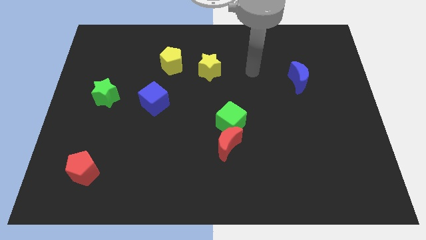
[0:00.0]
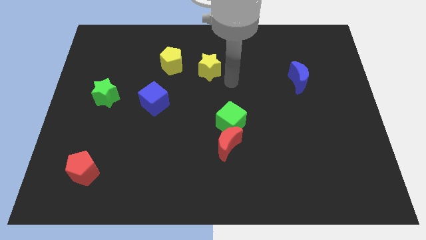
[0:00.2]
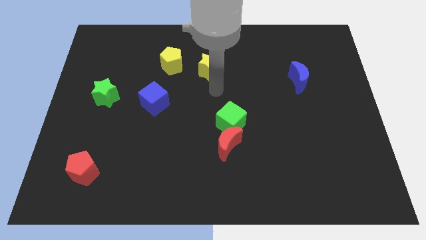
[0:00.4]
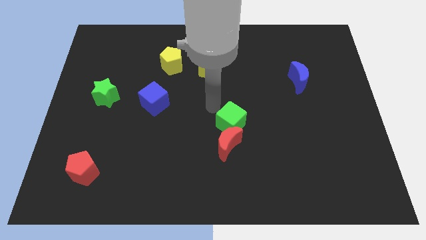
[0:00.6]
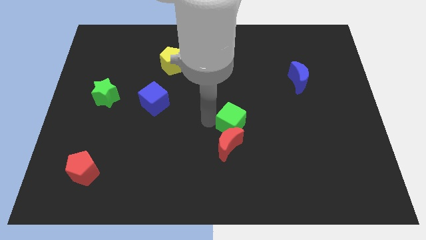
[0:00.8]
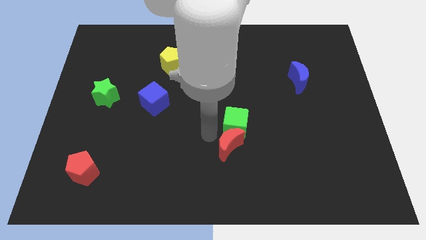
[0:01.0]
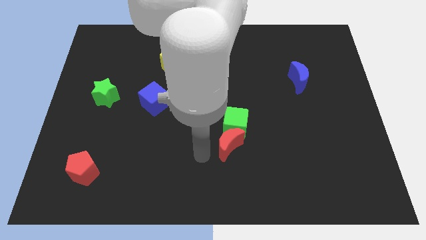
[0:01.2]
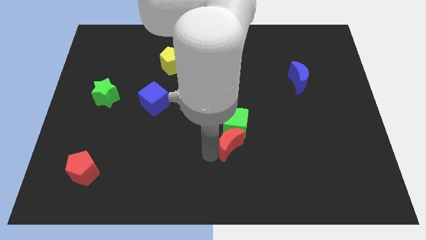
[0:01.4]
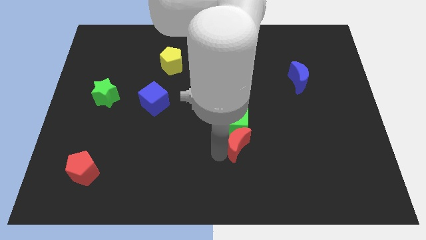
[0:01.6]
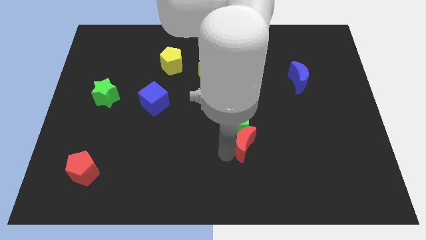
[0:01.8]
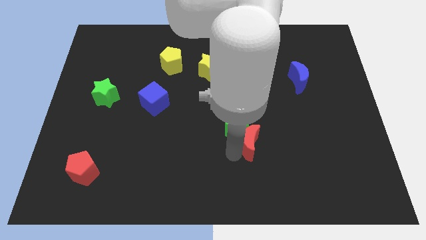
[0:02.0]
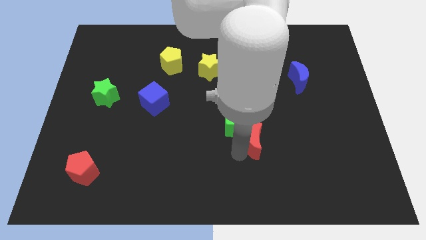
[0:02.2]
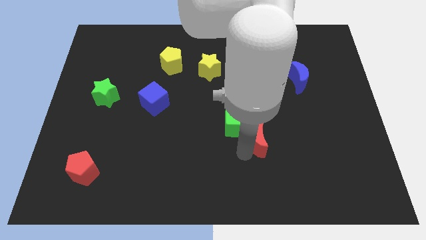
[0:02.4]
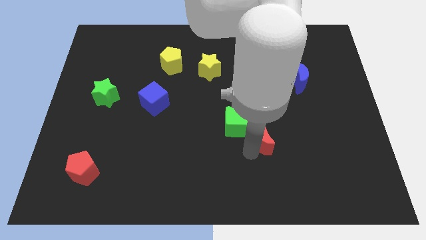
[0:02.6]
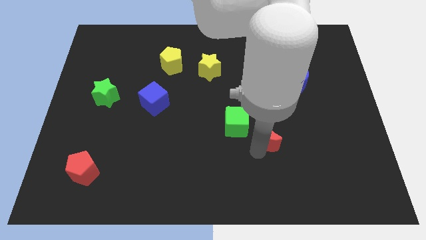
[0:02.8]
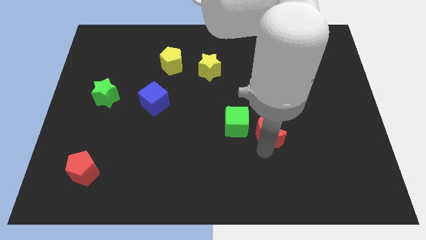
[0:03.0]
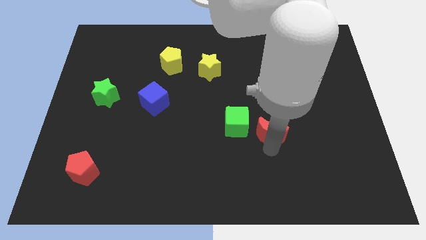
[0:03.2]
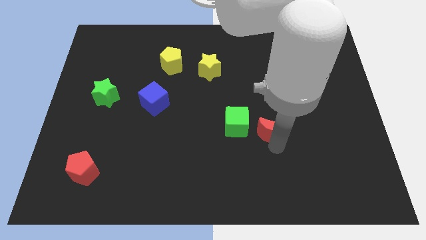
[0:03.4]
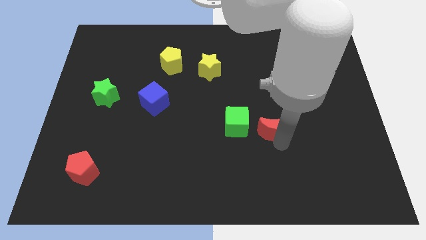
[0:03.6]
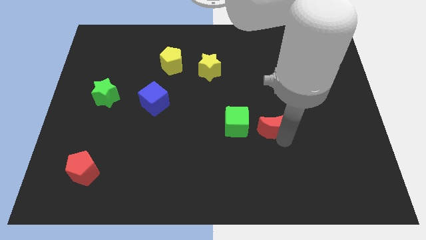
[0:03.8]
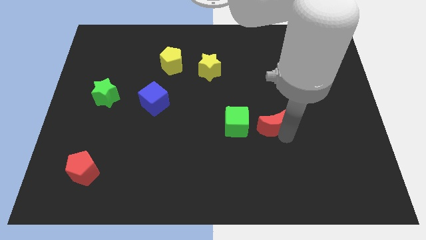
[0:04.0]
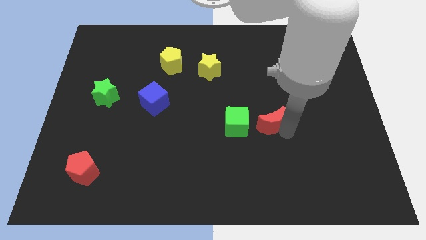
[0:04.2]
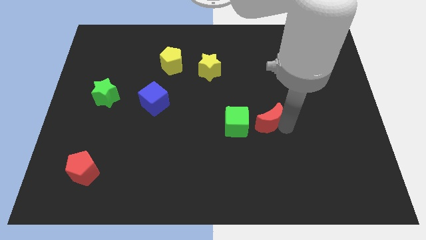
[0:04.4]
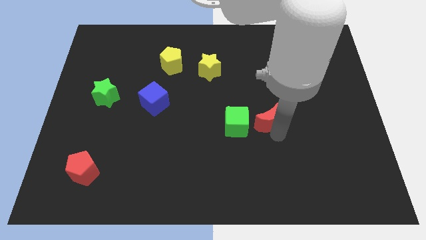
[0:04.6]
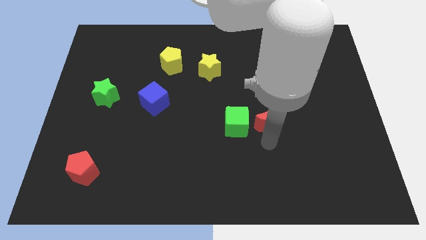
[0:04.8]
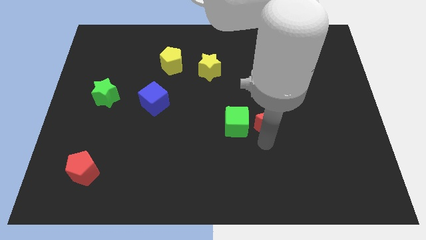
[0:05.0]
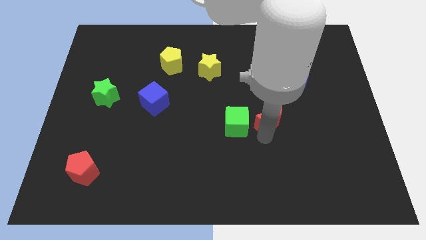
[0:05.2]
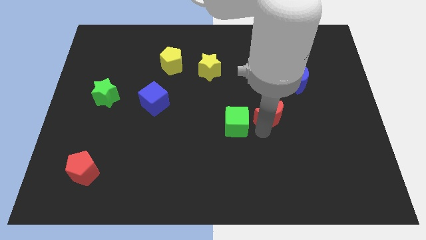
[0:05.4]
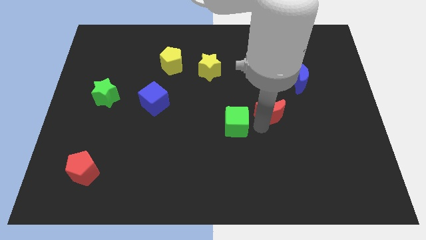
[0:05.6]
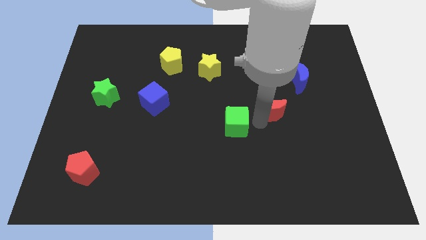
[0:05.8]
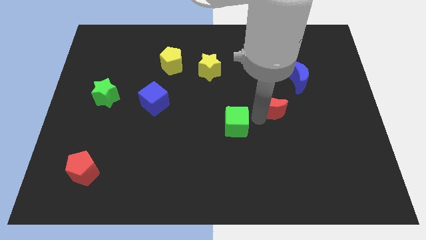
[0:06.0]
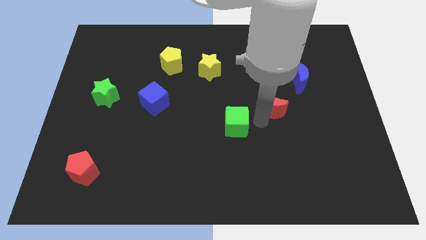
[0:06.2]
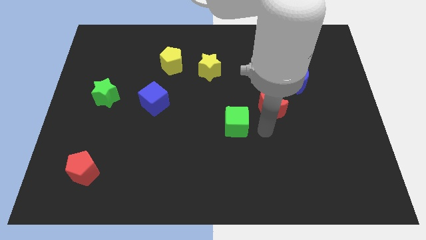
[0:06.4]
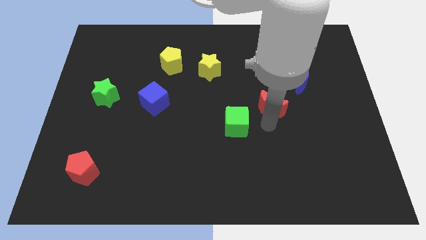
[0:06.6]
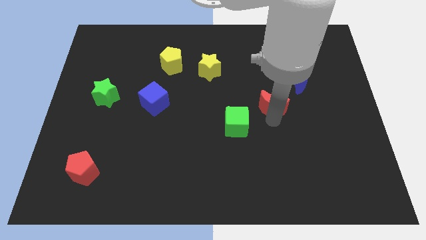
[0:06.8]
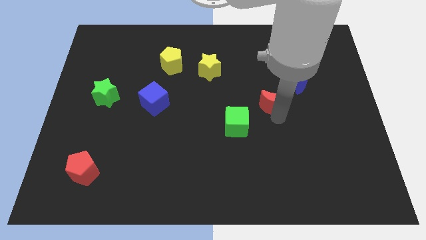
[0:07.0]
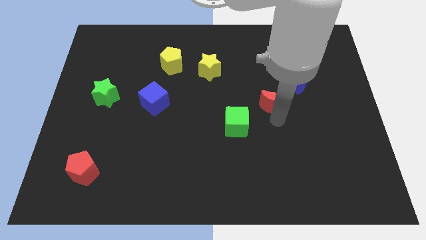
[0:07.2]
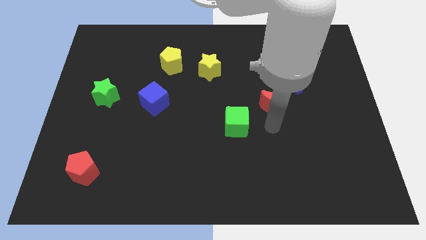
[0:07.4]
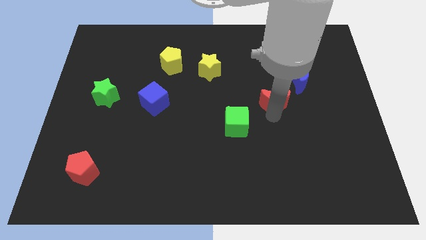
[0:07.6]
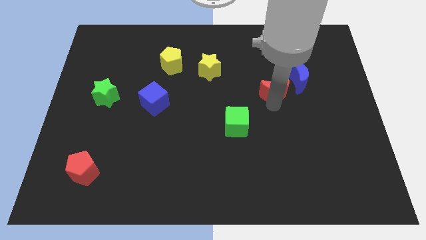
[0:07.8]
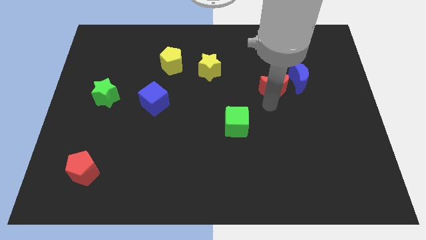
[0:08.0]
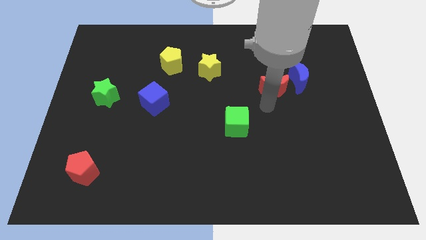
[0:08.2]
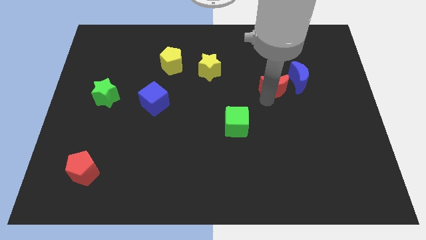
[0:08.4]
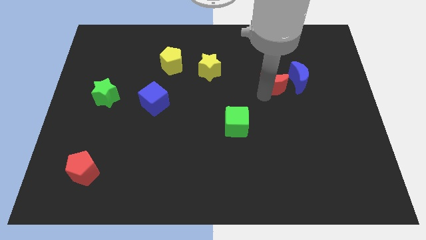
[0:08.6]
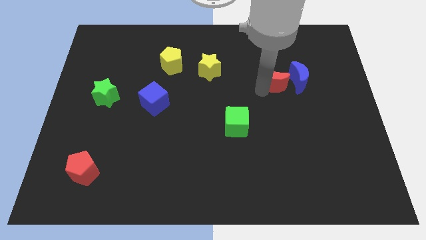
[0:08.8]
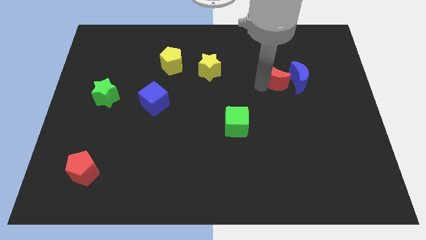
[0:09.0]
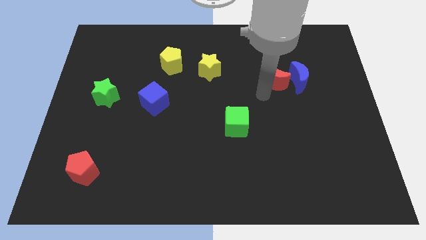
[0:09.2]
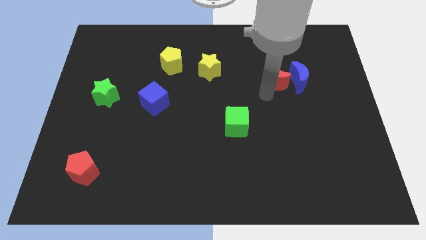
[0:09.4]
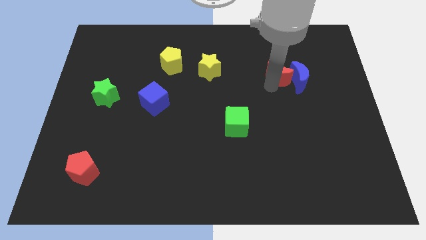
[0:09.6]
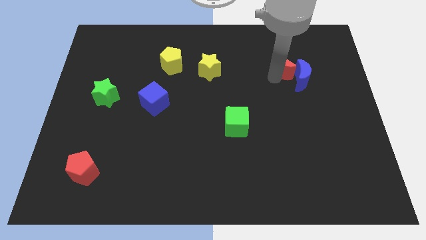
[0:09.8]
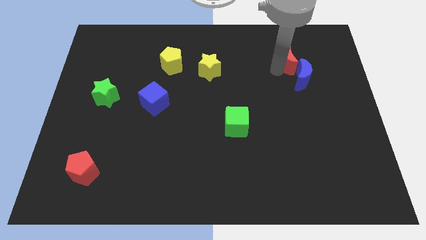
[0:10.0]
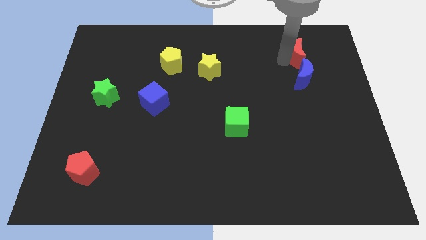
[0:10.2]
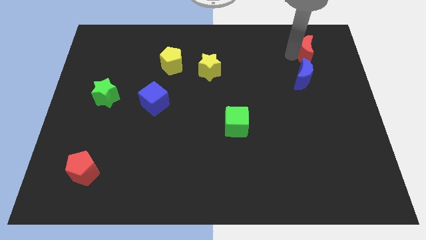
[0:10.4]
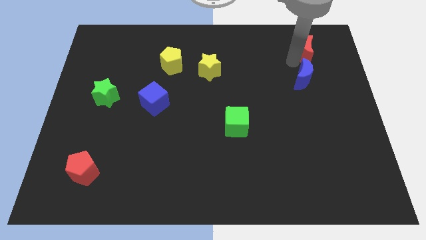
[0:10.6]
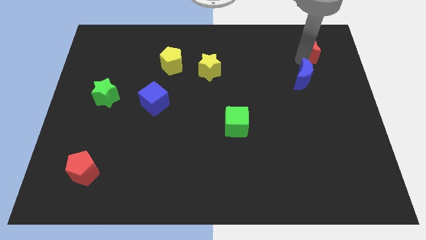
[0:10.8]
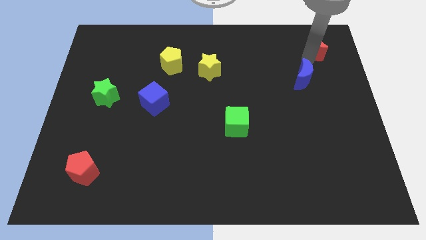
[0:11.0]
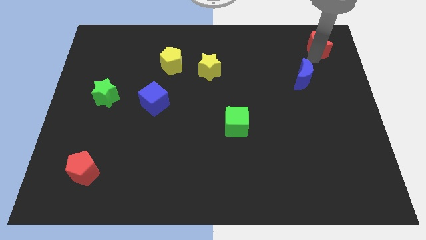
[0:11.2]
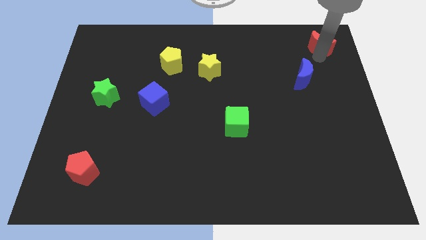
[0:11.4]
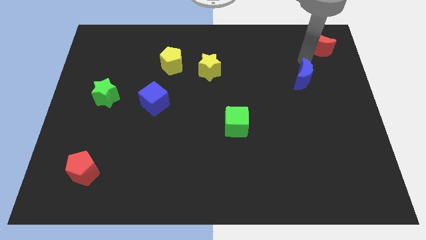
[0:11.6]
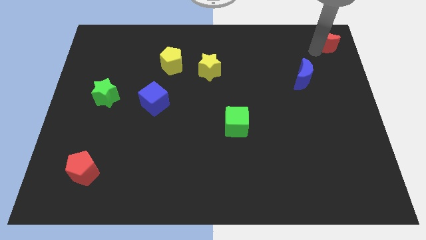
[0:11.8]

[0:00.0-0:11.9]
slide the red moon to the upper right corner
